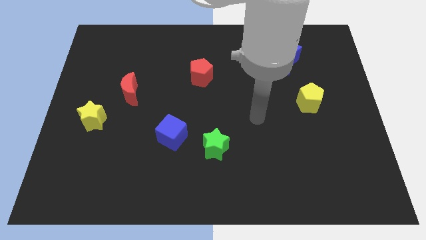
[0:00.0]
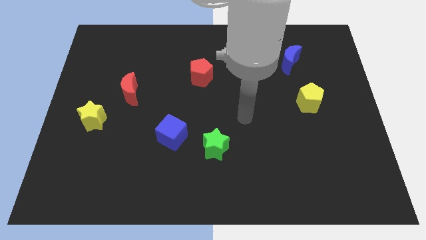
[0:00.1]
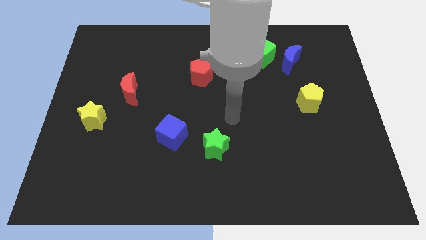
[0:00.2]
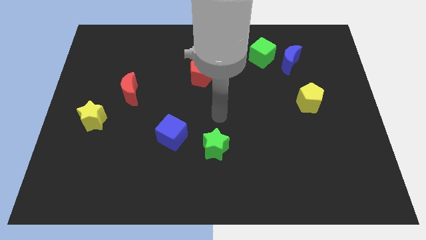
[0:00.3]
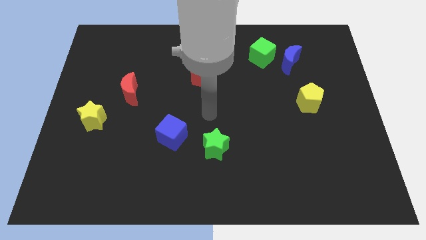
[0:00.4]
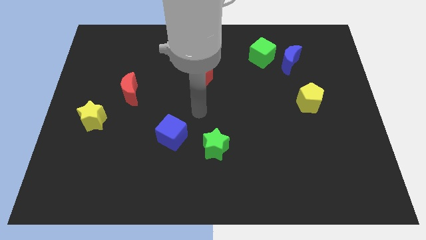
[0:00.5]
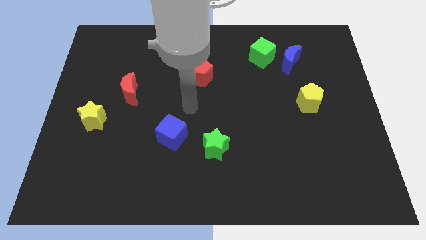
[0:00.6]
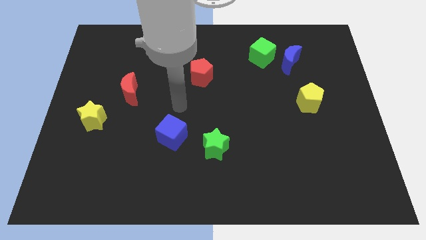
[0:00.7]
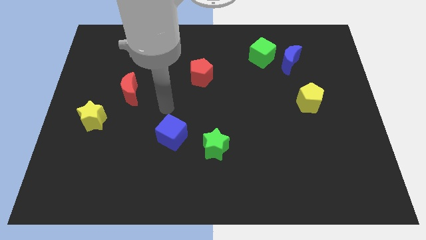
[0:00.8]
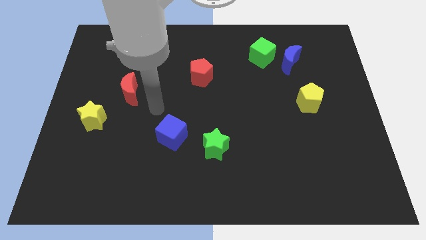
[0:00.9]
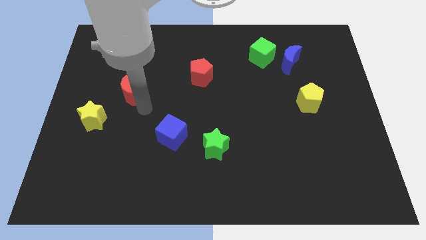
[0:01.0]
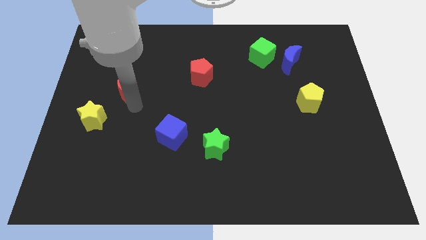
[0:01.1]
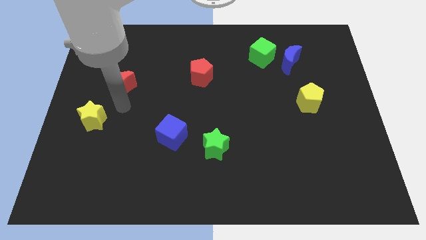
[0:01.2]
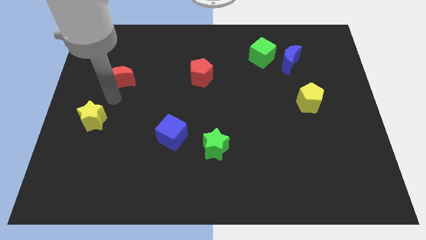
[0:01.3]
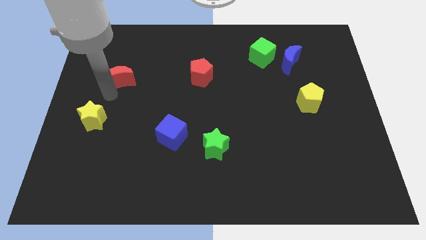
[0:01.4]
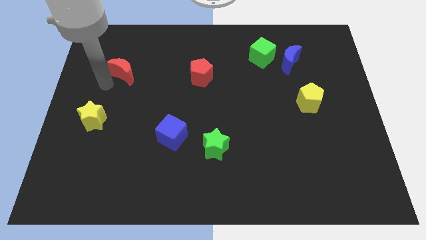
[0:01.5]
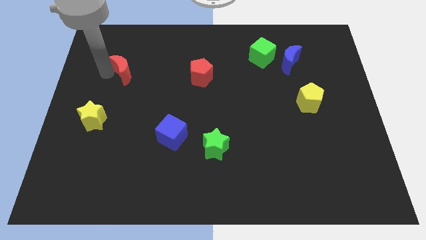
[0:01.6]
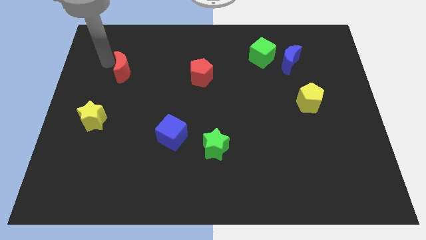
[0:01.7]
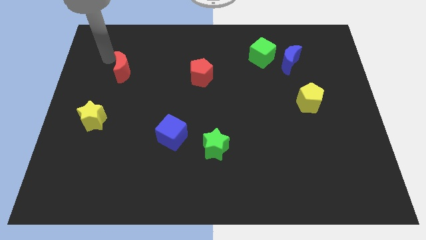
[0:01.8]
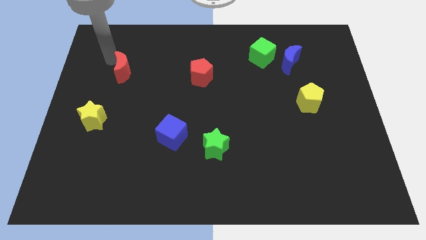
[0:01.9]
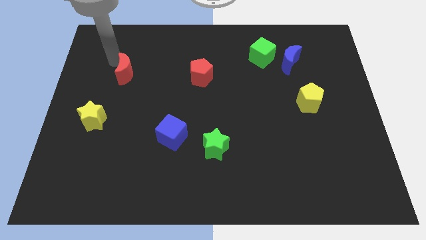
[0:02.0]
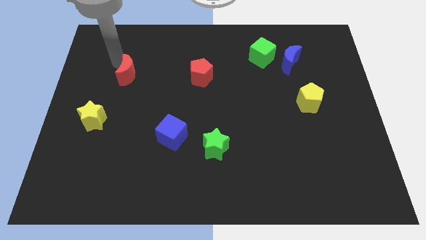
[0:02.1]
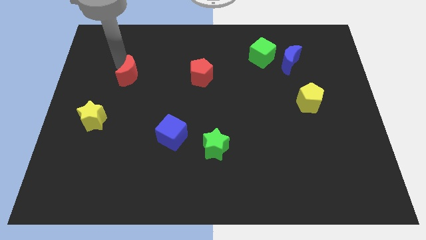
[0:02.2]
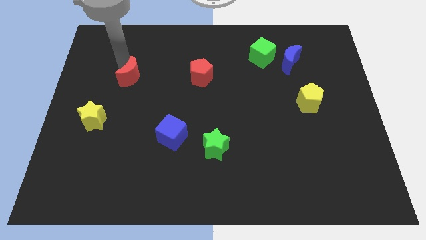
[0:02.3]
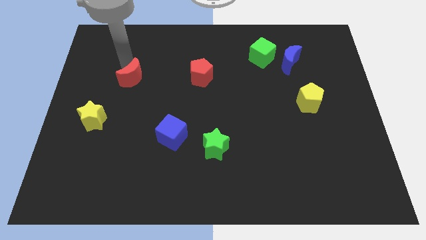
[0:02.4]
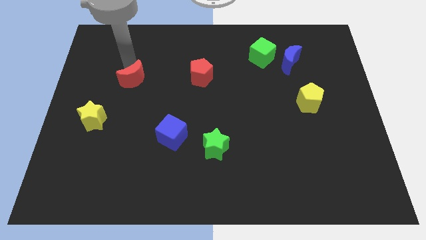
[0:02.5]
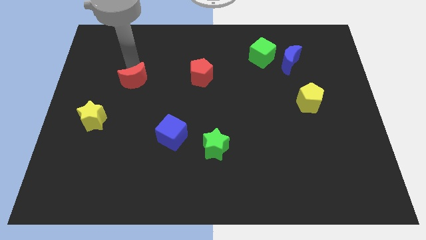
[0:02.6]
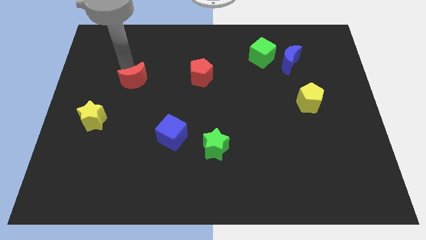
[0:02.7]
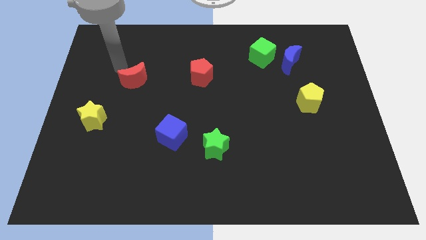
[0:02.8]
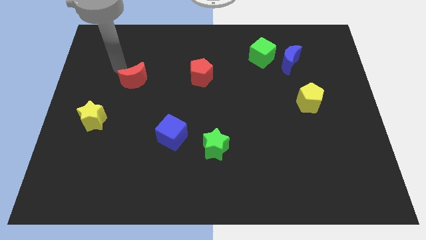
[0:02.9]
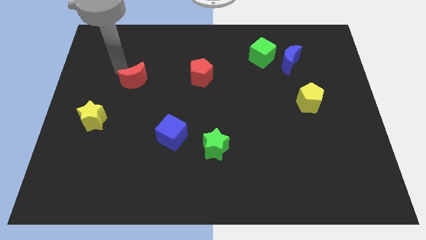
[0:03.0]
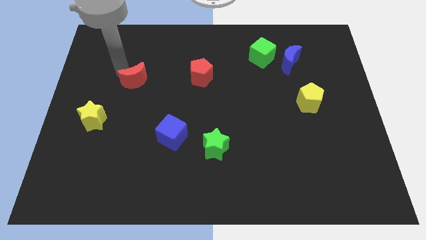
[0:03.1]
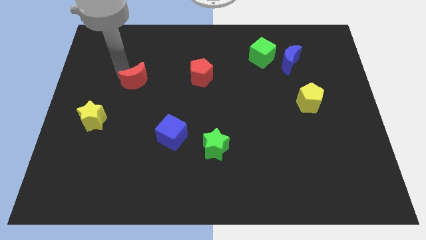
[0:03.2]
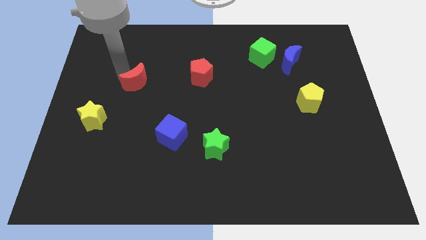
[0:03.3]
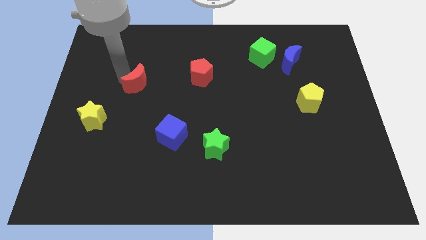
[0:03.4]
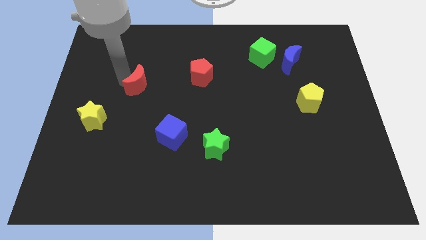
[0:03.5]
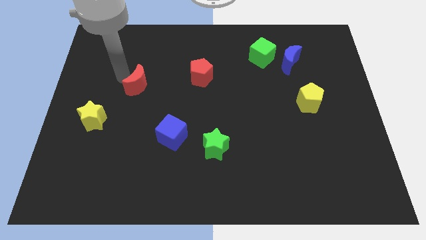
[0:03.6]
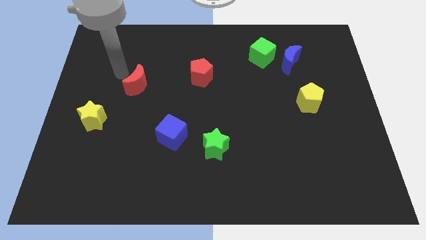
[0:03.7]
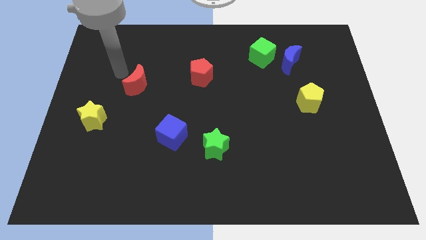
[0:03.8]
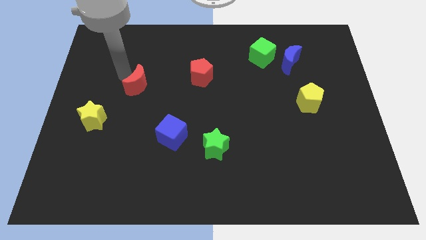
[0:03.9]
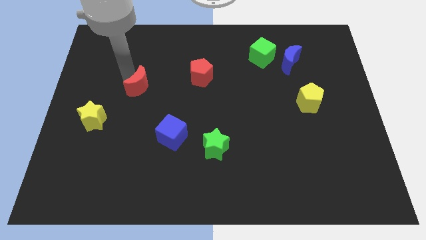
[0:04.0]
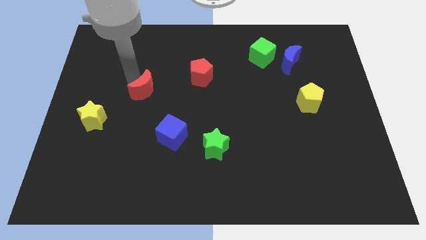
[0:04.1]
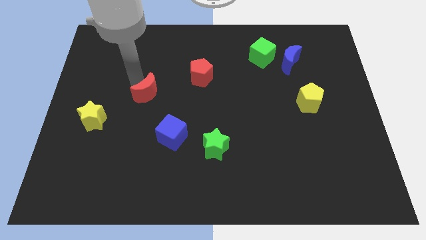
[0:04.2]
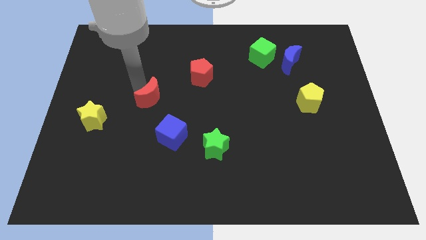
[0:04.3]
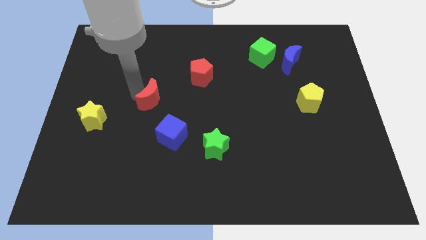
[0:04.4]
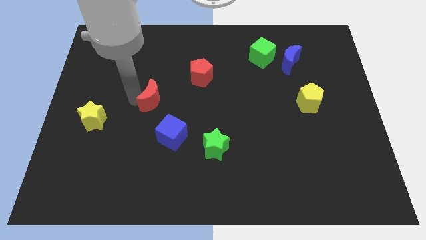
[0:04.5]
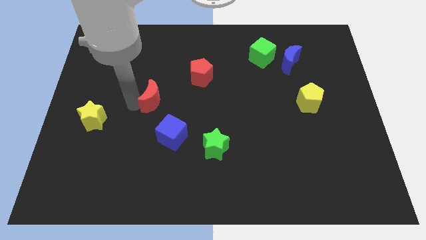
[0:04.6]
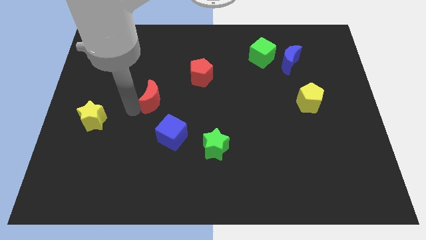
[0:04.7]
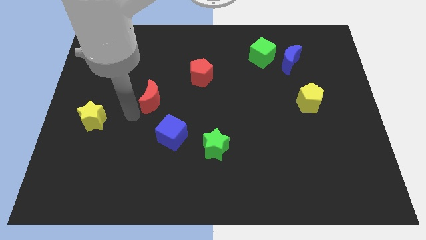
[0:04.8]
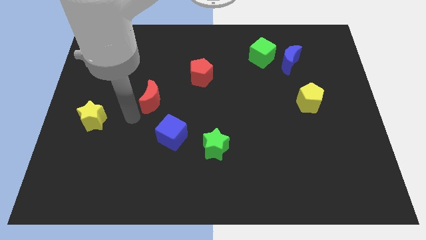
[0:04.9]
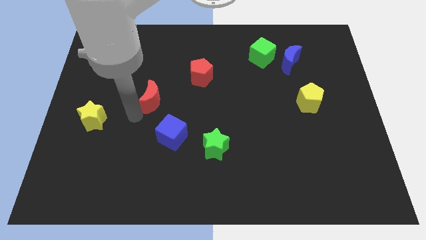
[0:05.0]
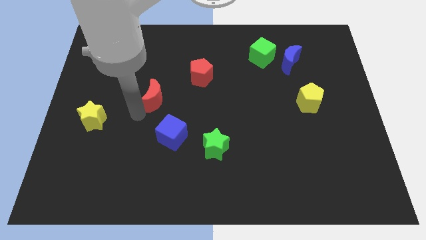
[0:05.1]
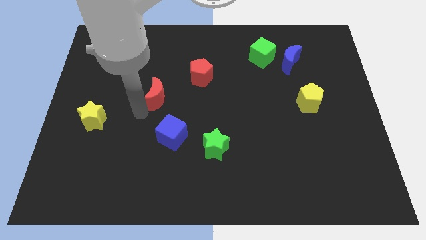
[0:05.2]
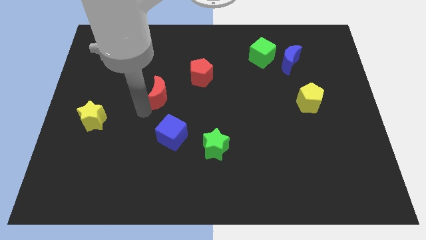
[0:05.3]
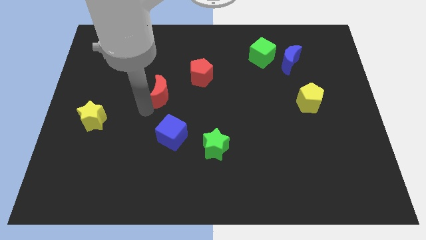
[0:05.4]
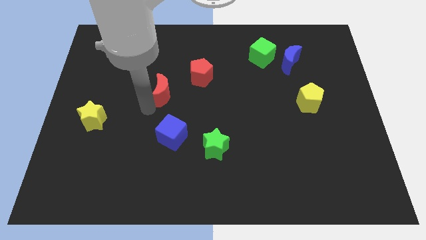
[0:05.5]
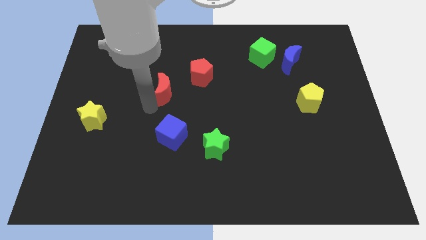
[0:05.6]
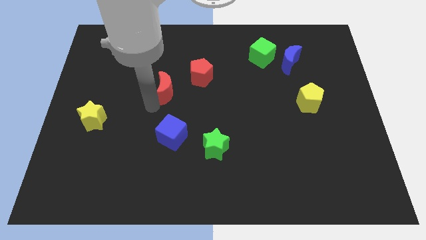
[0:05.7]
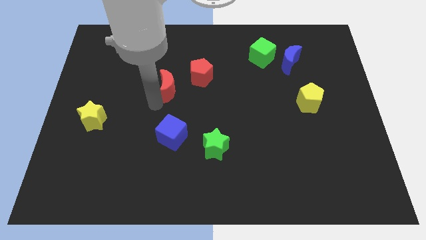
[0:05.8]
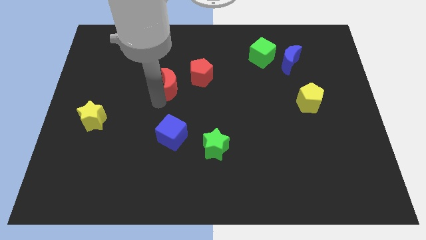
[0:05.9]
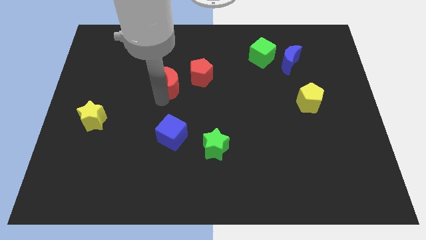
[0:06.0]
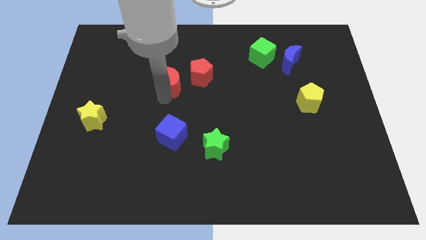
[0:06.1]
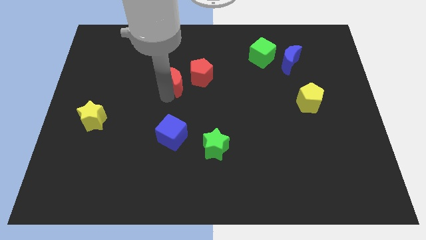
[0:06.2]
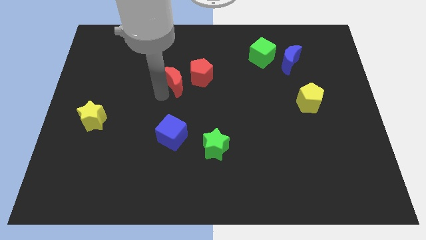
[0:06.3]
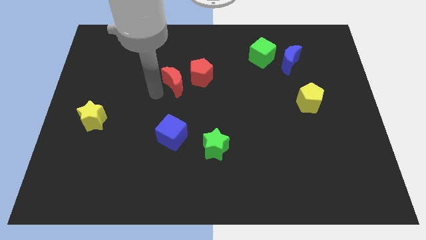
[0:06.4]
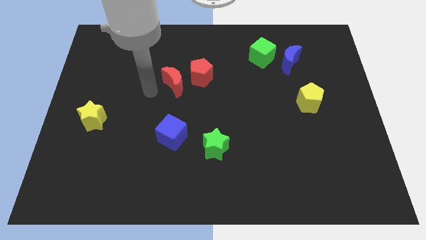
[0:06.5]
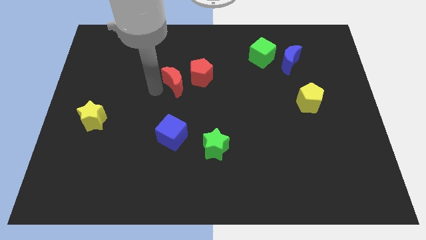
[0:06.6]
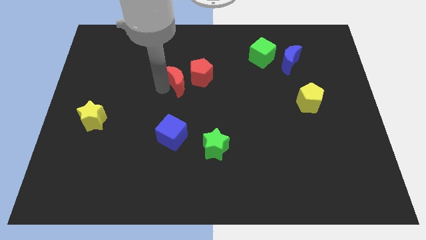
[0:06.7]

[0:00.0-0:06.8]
put the red moon towards the red pentagon

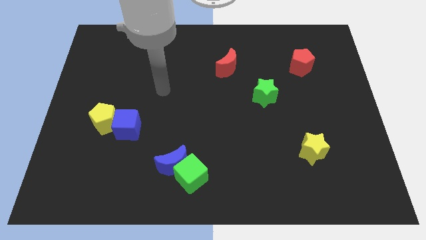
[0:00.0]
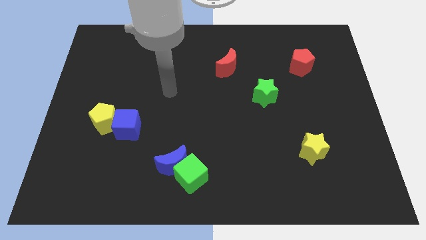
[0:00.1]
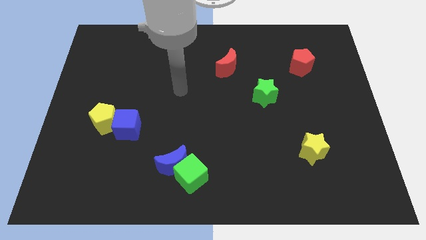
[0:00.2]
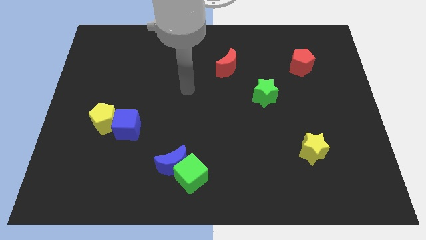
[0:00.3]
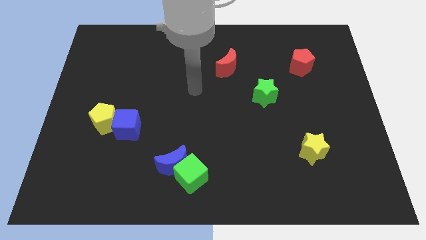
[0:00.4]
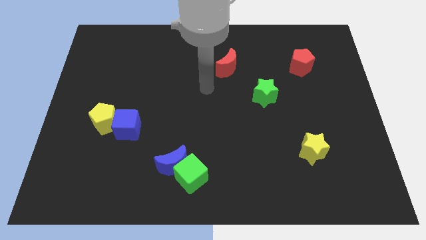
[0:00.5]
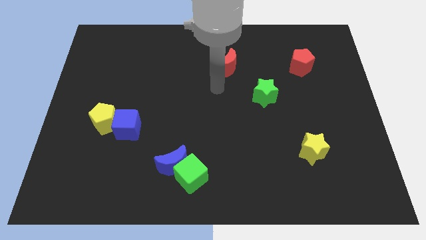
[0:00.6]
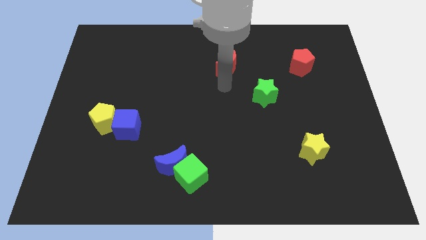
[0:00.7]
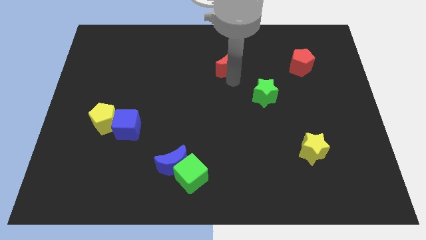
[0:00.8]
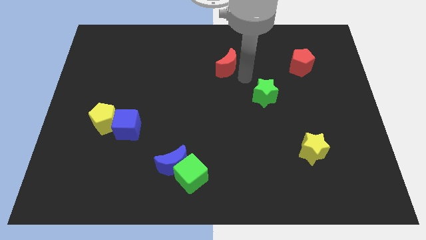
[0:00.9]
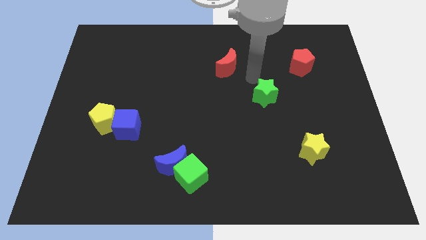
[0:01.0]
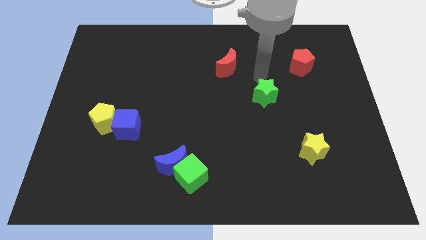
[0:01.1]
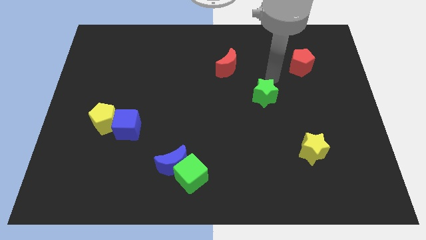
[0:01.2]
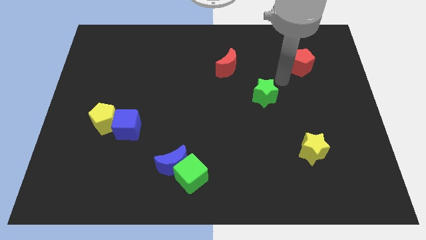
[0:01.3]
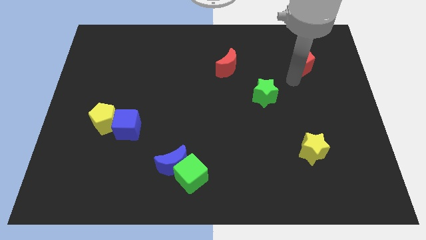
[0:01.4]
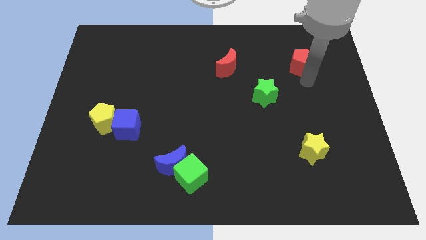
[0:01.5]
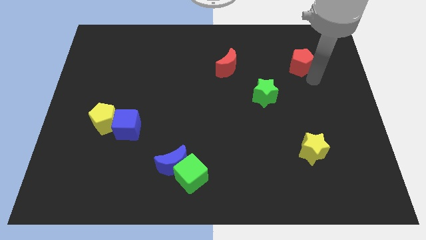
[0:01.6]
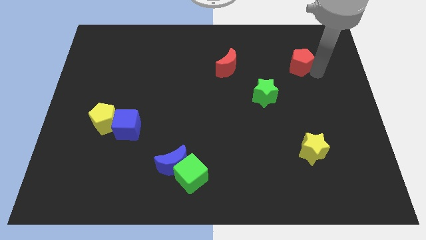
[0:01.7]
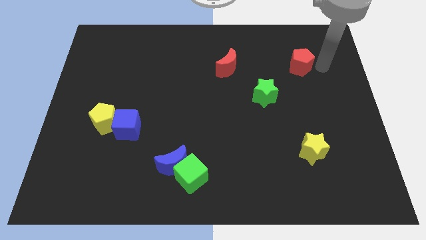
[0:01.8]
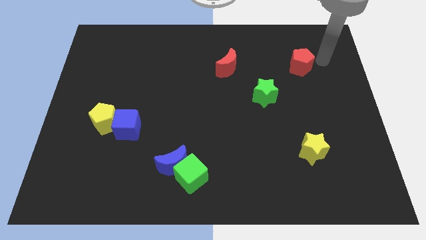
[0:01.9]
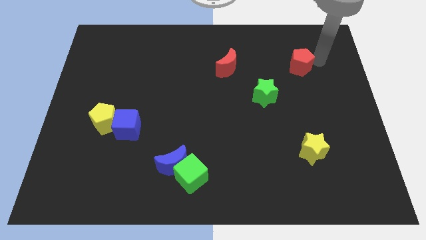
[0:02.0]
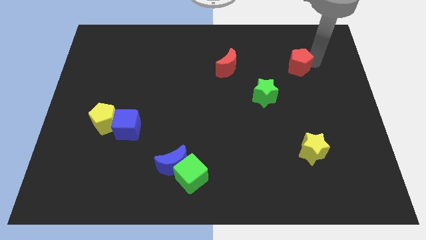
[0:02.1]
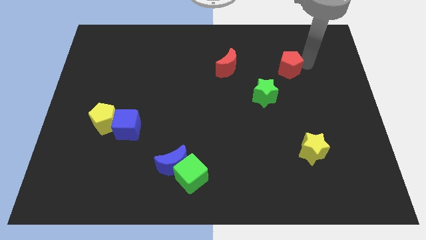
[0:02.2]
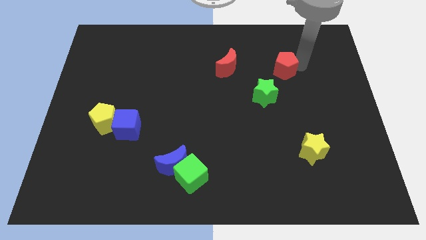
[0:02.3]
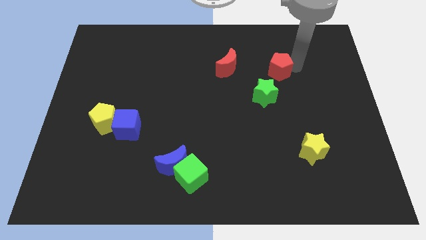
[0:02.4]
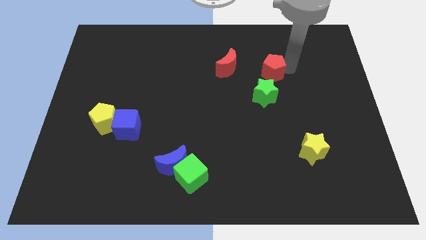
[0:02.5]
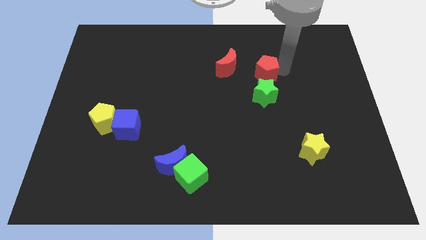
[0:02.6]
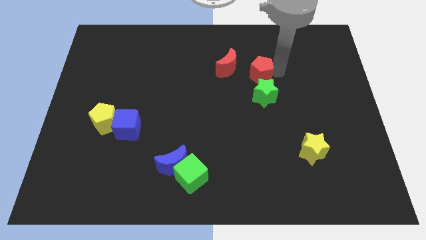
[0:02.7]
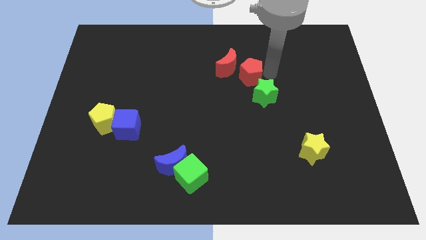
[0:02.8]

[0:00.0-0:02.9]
push the red pentagon towards the red moon
